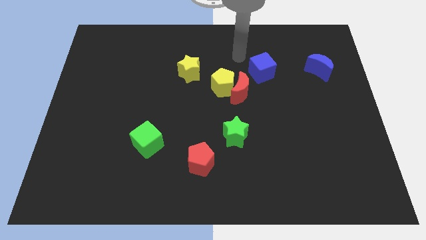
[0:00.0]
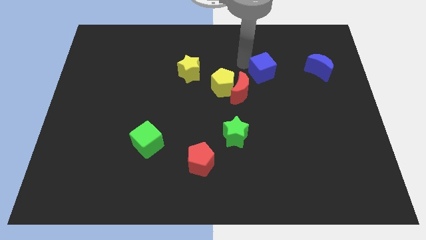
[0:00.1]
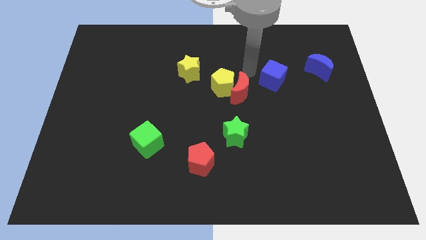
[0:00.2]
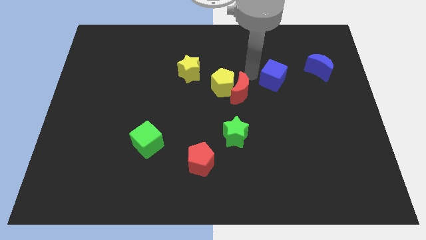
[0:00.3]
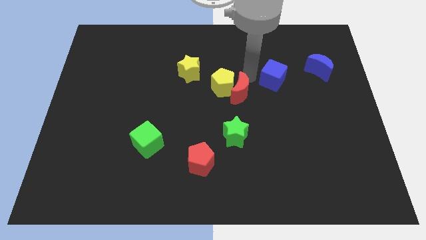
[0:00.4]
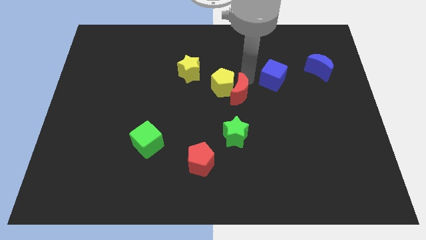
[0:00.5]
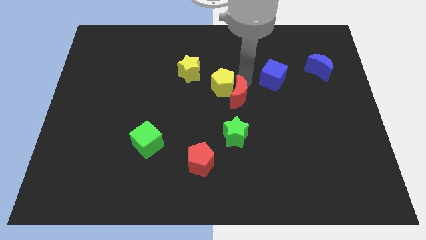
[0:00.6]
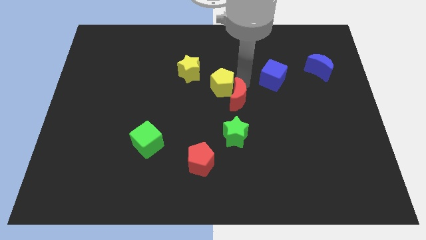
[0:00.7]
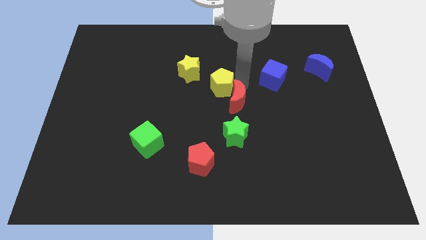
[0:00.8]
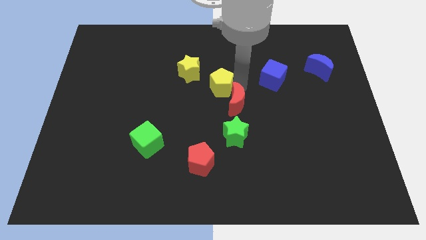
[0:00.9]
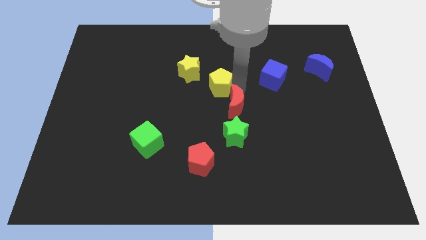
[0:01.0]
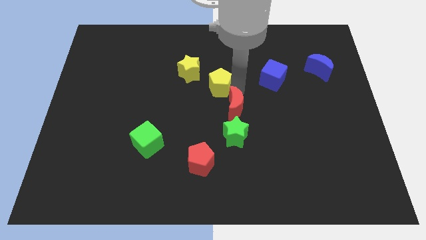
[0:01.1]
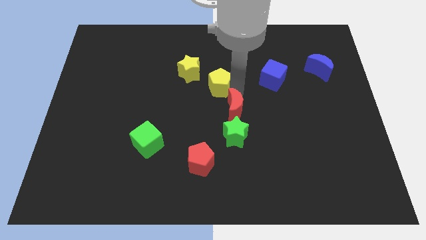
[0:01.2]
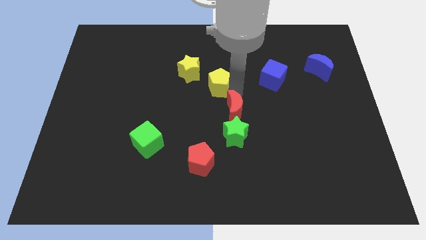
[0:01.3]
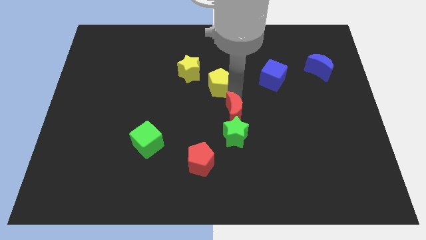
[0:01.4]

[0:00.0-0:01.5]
move the red moon away from the yellow pentagon and blue cube

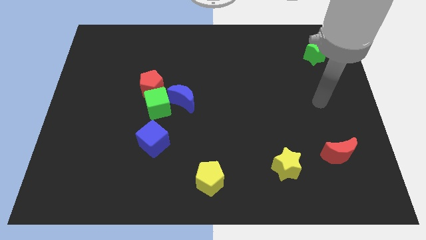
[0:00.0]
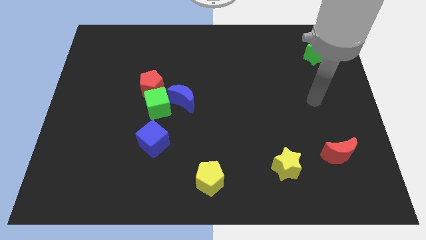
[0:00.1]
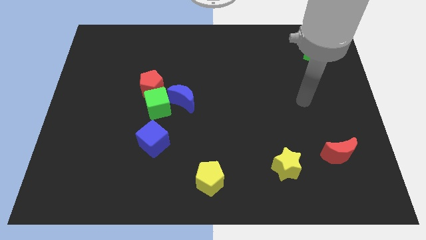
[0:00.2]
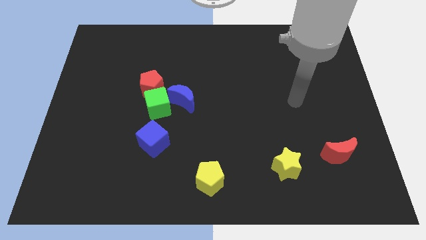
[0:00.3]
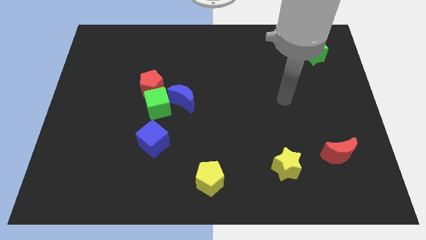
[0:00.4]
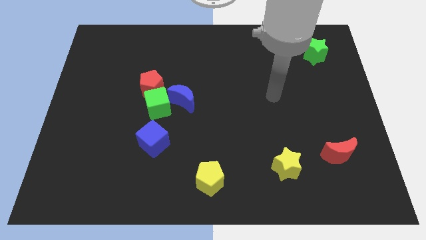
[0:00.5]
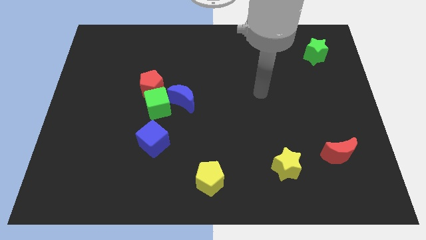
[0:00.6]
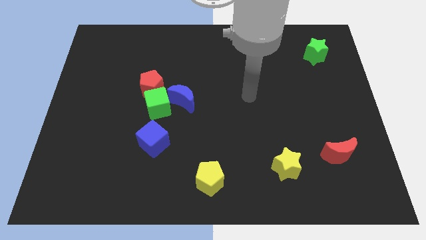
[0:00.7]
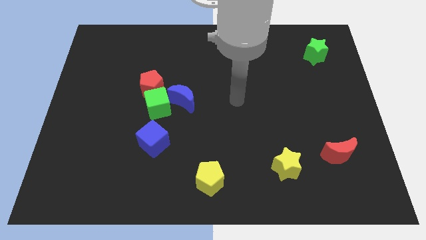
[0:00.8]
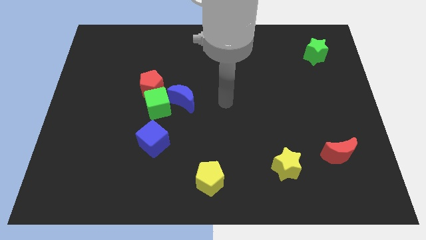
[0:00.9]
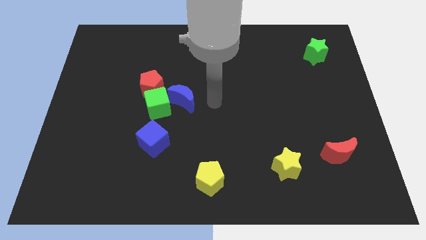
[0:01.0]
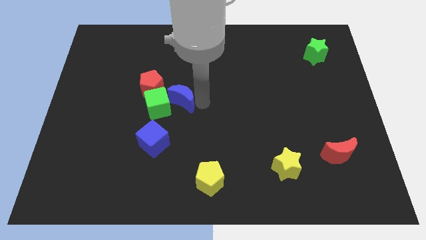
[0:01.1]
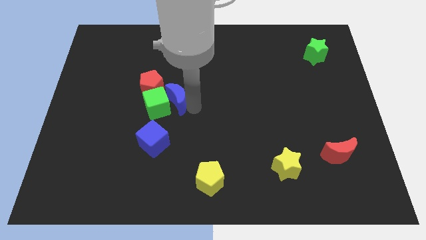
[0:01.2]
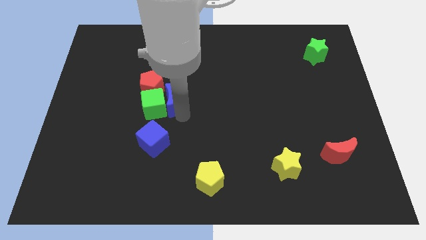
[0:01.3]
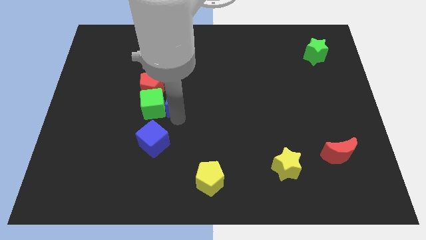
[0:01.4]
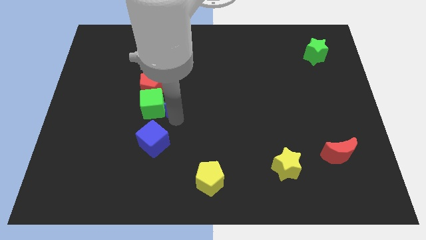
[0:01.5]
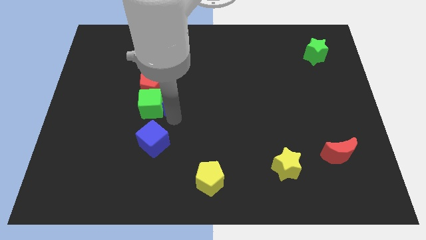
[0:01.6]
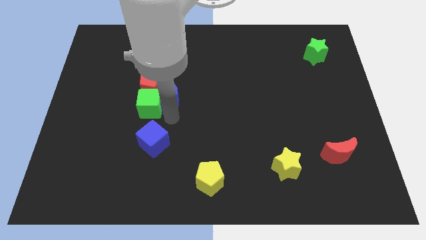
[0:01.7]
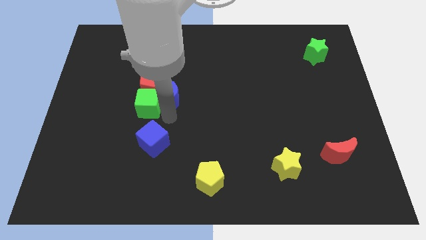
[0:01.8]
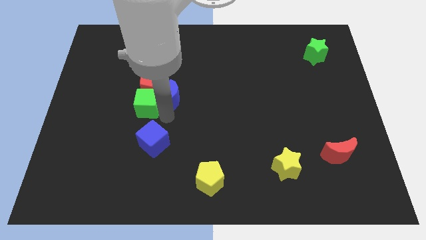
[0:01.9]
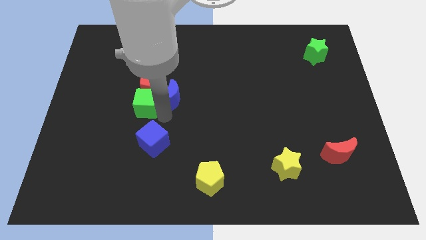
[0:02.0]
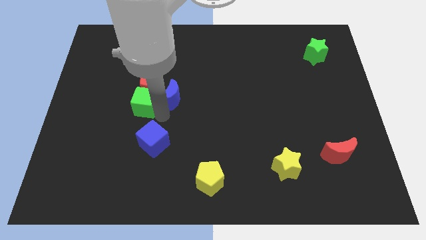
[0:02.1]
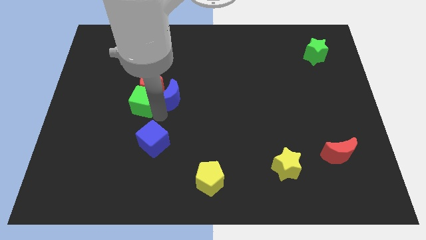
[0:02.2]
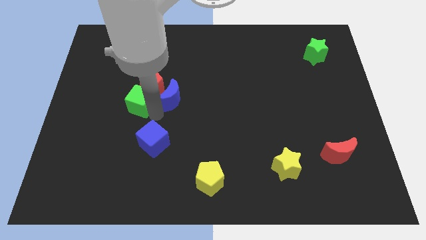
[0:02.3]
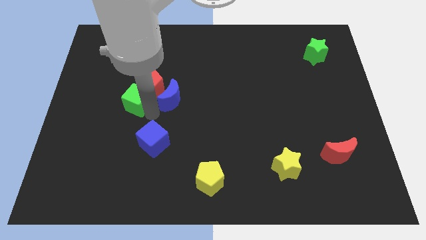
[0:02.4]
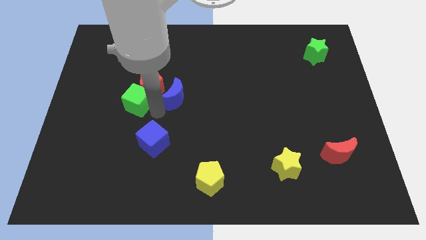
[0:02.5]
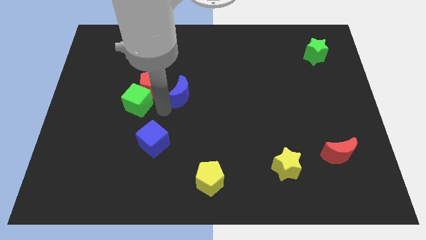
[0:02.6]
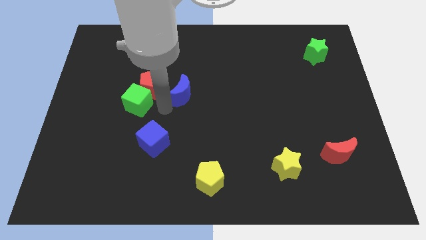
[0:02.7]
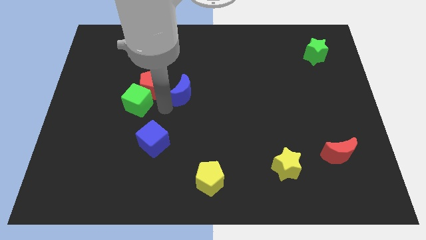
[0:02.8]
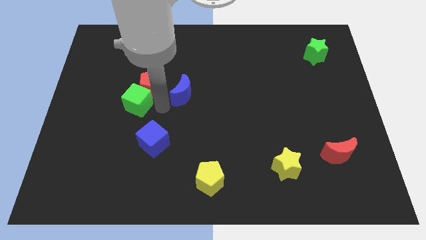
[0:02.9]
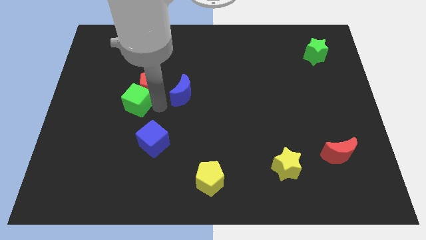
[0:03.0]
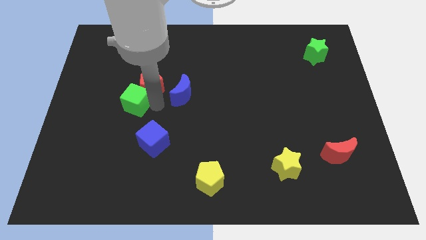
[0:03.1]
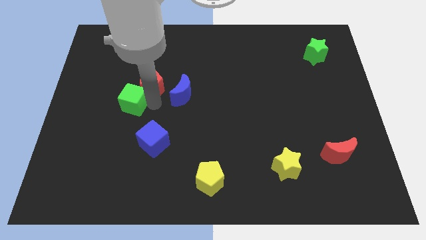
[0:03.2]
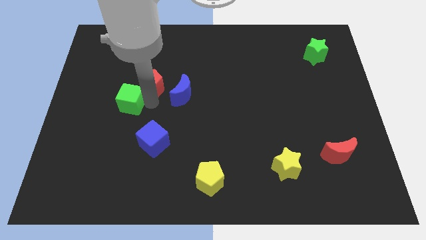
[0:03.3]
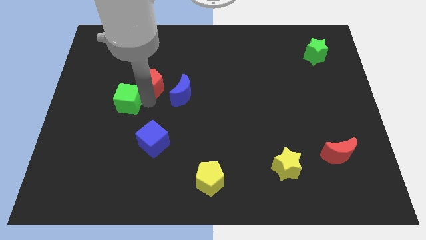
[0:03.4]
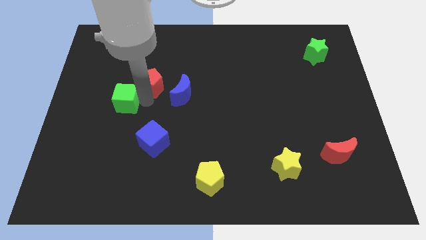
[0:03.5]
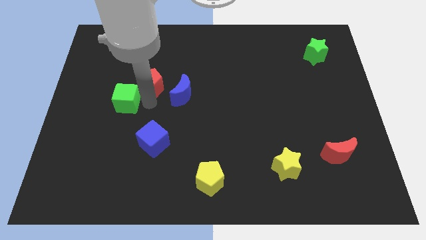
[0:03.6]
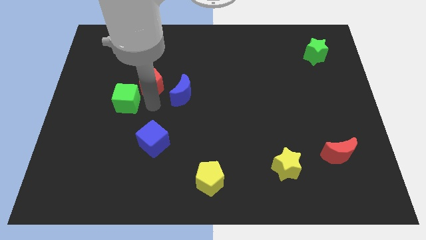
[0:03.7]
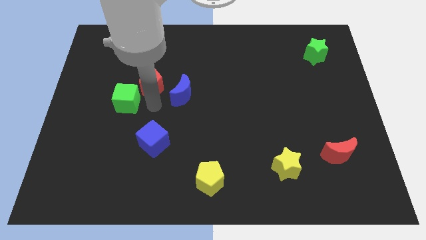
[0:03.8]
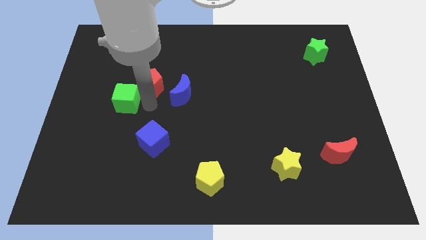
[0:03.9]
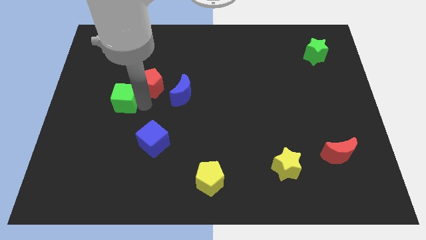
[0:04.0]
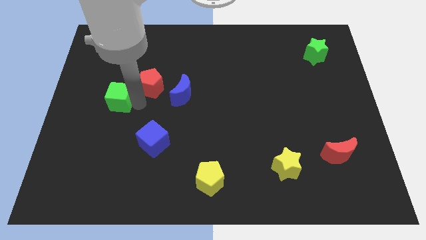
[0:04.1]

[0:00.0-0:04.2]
separate the green cube from the group of blocks

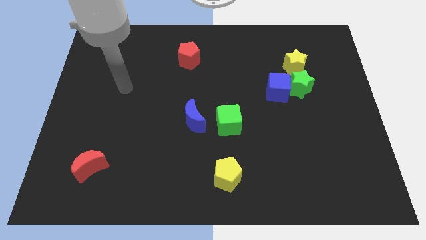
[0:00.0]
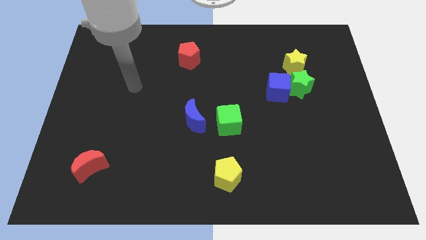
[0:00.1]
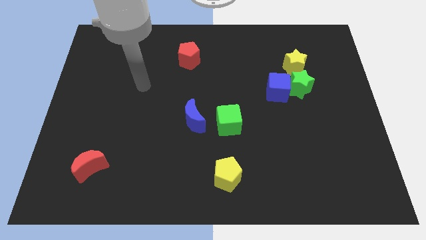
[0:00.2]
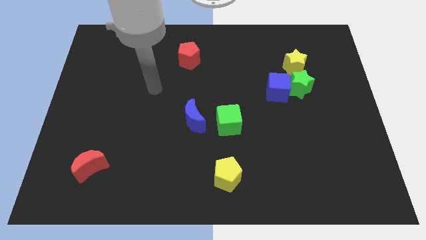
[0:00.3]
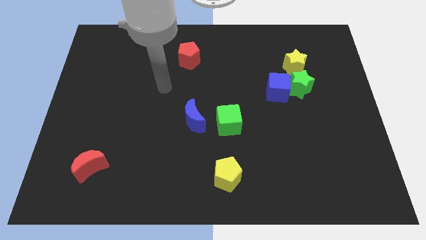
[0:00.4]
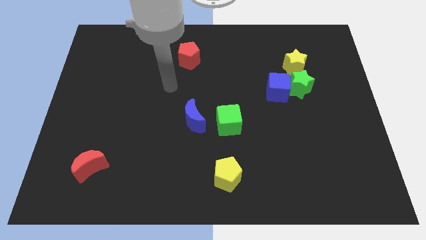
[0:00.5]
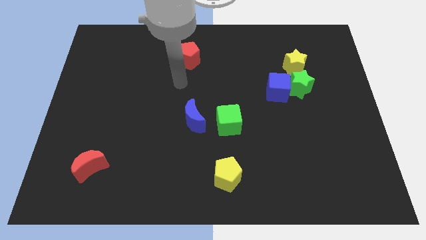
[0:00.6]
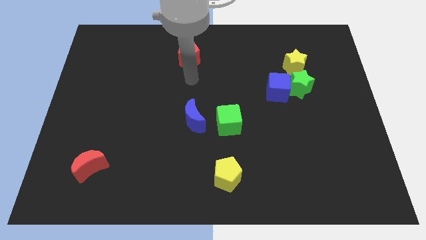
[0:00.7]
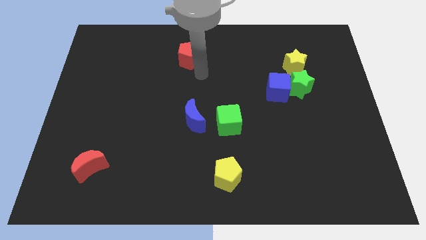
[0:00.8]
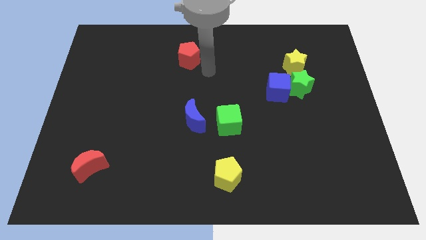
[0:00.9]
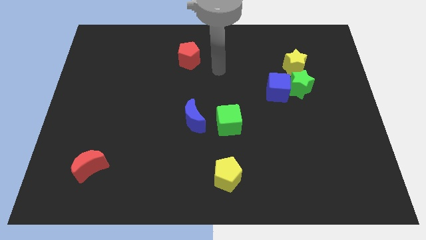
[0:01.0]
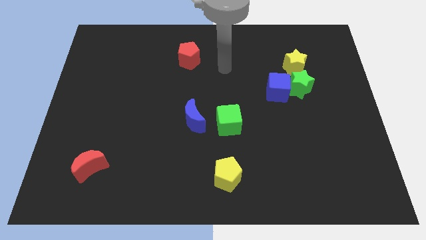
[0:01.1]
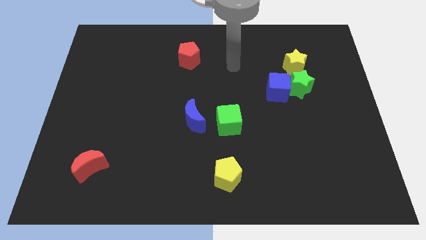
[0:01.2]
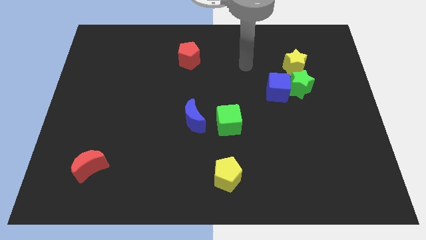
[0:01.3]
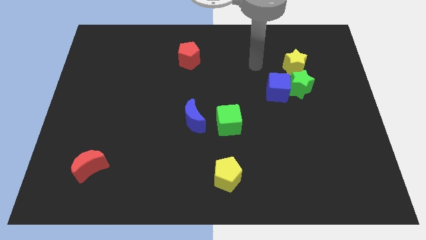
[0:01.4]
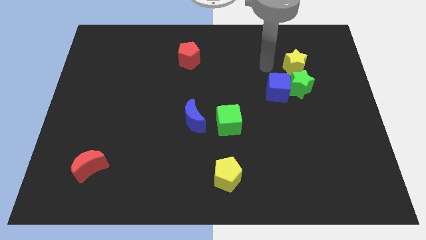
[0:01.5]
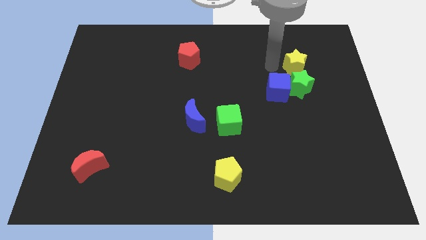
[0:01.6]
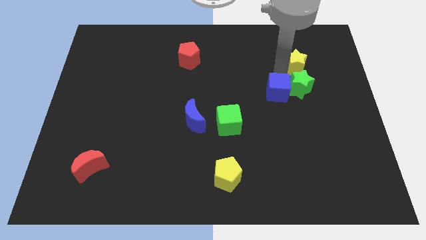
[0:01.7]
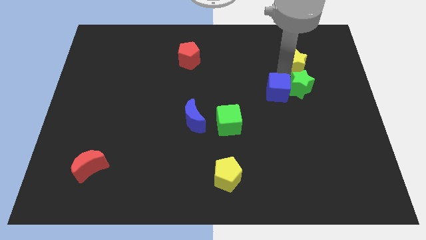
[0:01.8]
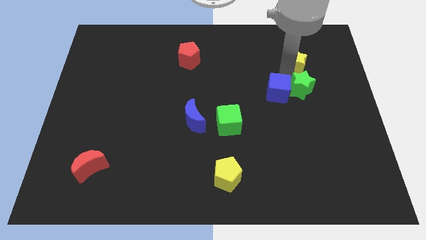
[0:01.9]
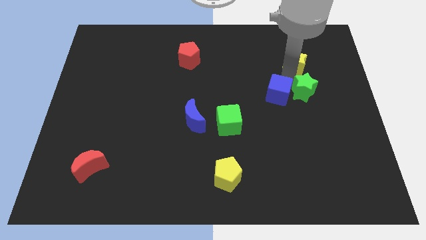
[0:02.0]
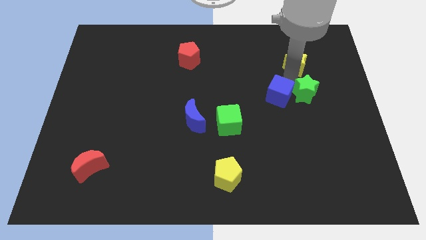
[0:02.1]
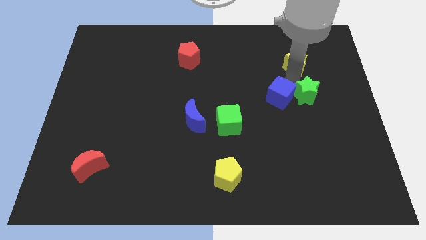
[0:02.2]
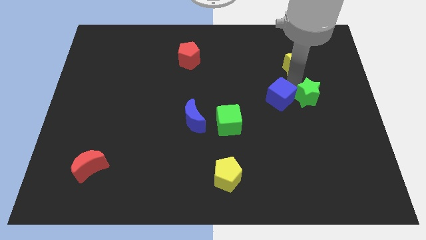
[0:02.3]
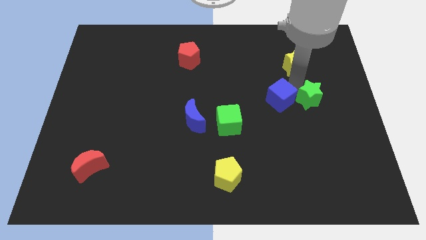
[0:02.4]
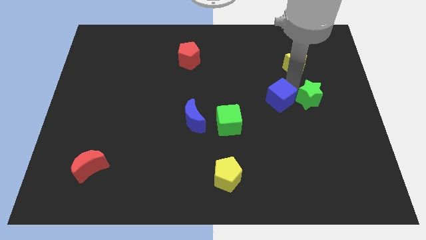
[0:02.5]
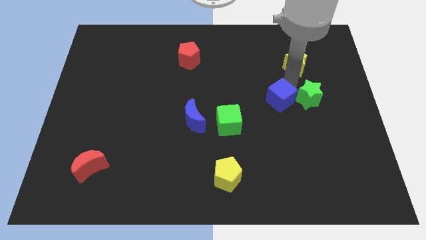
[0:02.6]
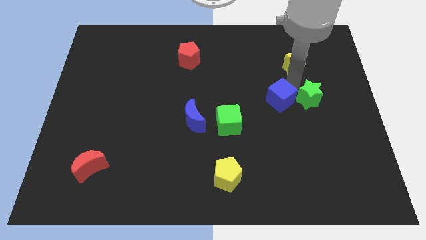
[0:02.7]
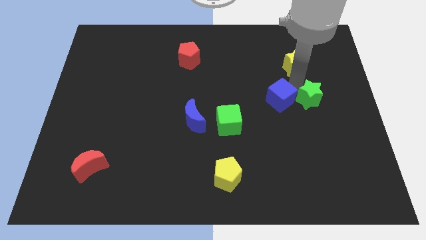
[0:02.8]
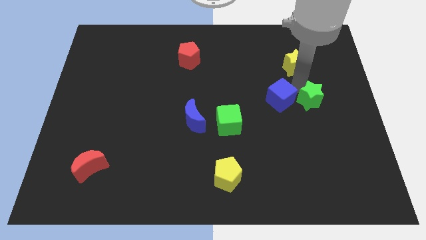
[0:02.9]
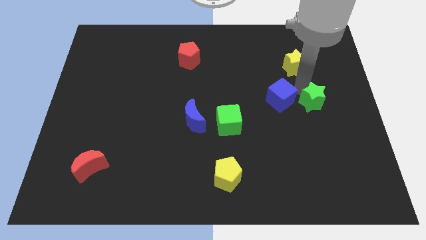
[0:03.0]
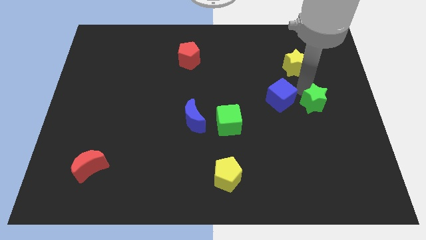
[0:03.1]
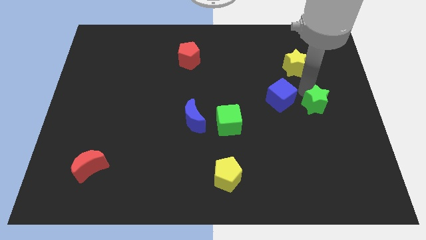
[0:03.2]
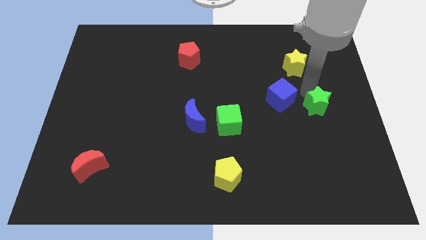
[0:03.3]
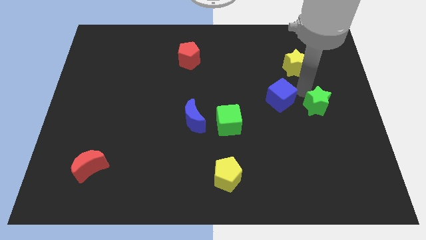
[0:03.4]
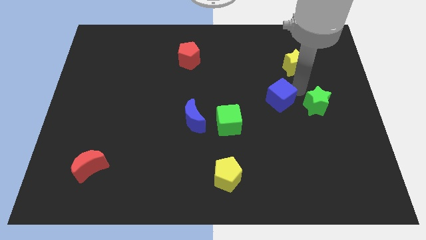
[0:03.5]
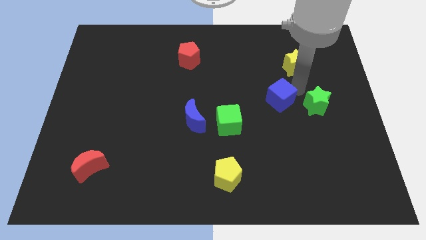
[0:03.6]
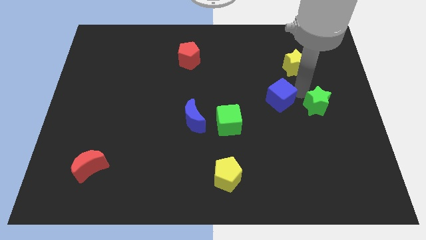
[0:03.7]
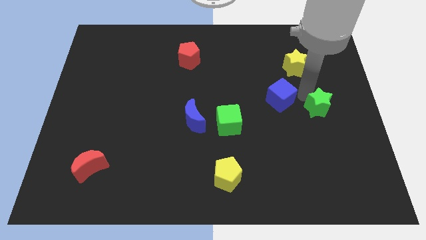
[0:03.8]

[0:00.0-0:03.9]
separate the green star from the blue cube and yellow star
